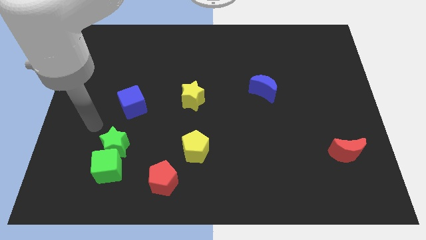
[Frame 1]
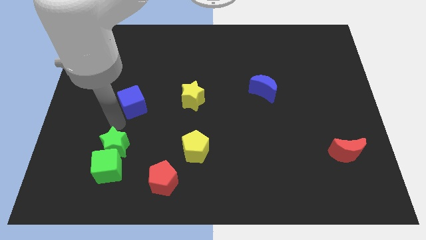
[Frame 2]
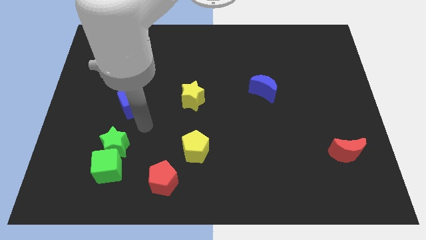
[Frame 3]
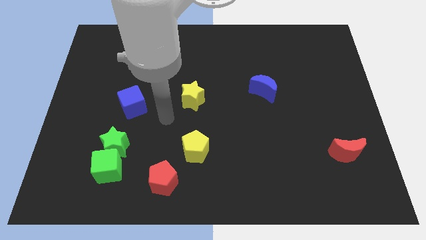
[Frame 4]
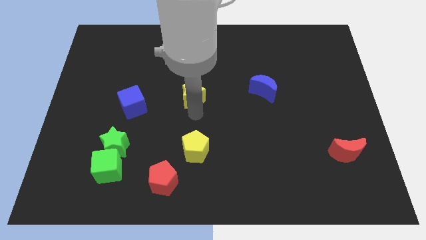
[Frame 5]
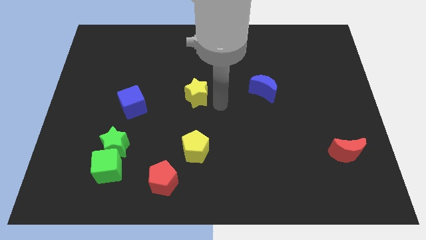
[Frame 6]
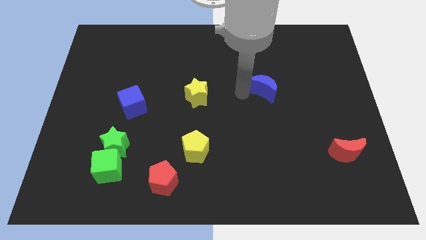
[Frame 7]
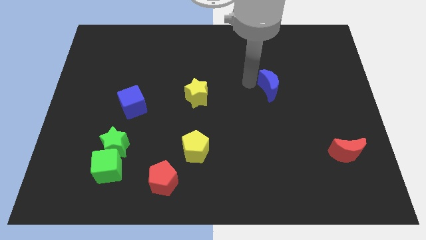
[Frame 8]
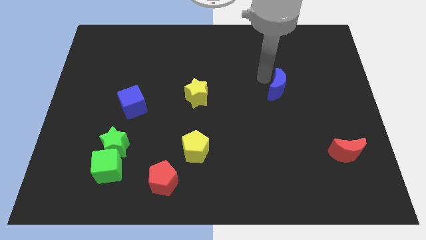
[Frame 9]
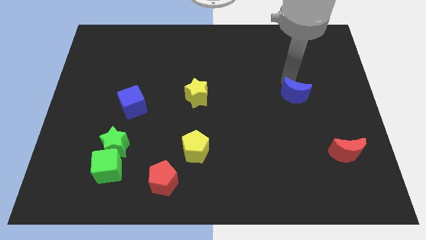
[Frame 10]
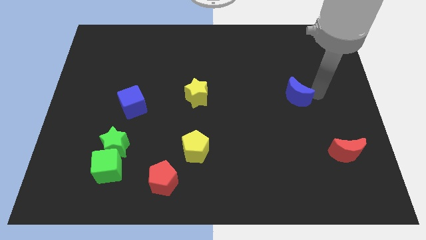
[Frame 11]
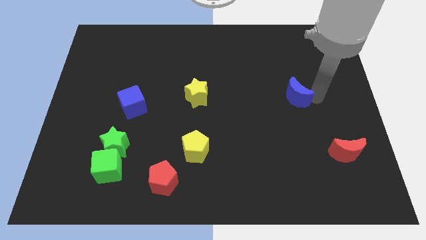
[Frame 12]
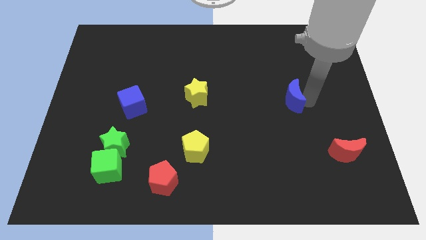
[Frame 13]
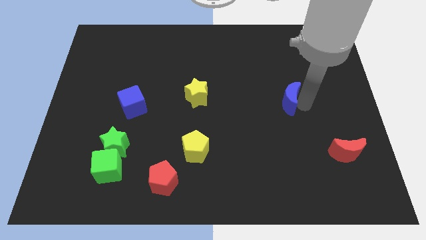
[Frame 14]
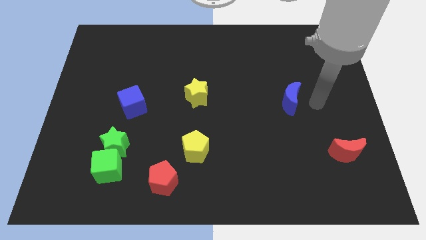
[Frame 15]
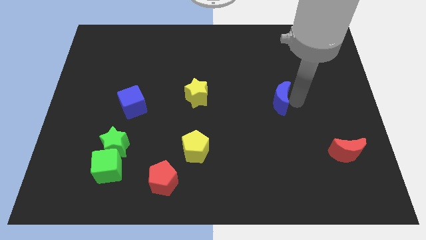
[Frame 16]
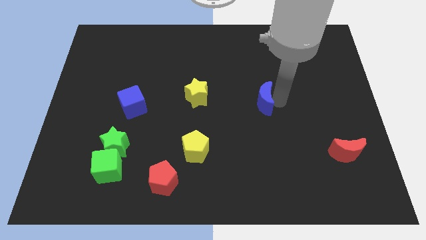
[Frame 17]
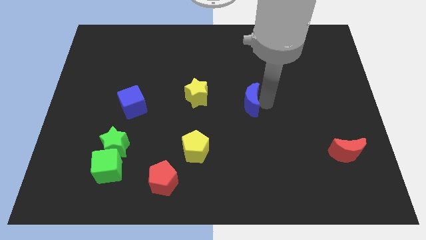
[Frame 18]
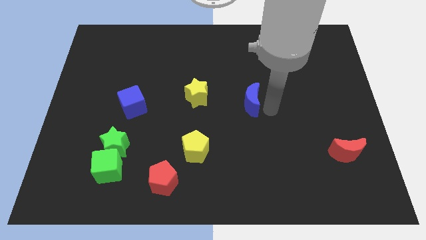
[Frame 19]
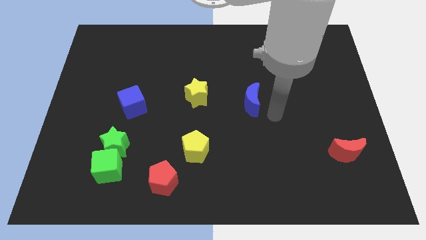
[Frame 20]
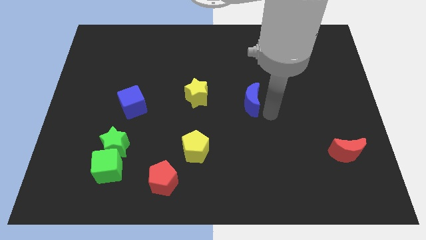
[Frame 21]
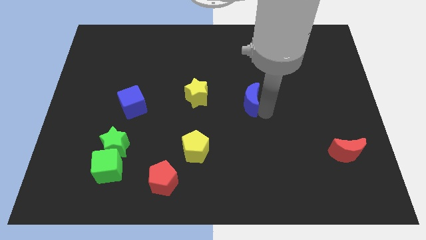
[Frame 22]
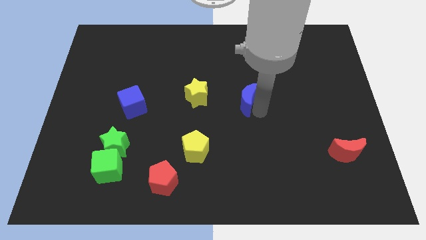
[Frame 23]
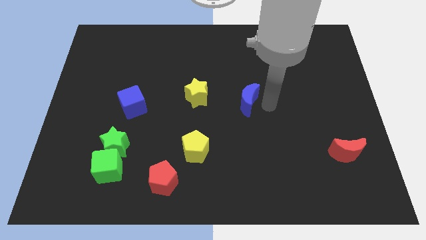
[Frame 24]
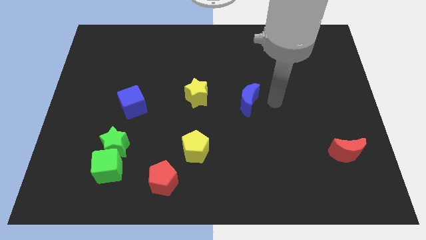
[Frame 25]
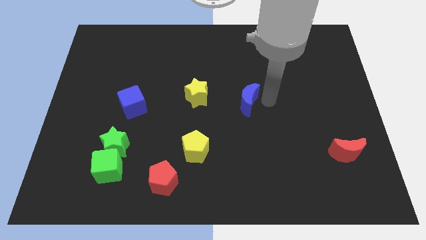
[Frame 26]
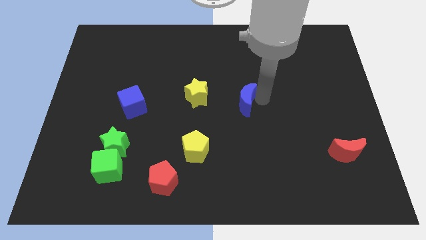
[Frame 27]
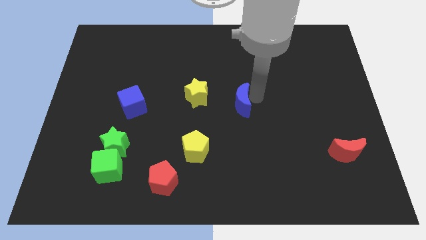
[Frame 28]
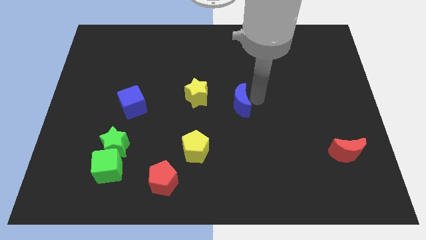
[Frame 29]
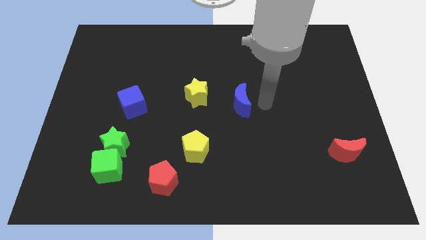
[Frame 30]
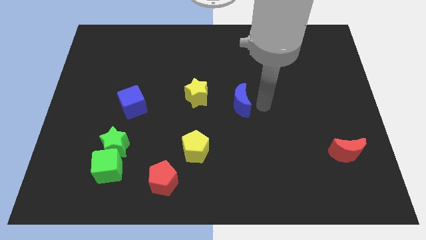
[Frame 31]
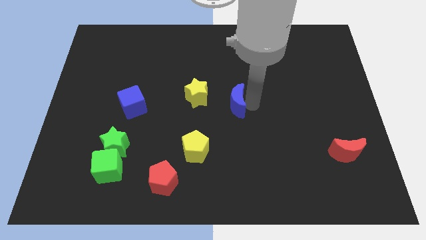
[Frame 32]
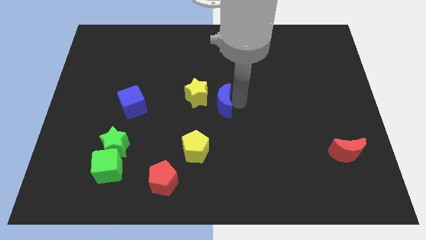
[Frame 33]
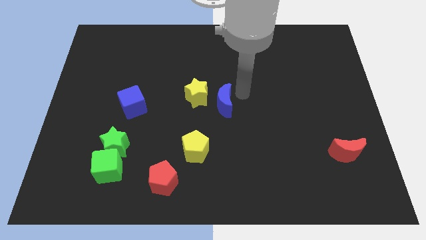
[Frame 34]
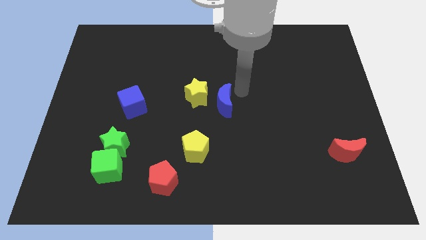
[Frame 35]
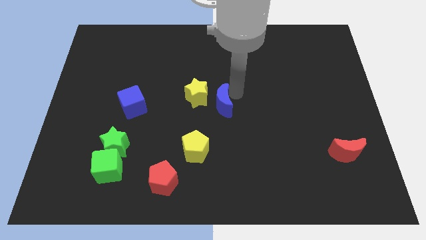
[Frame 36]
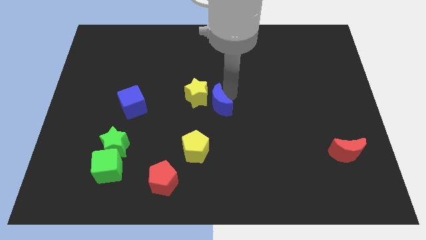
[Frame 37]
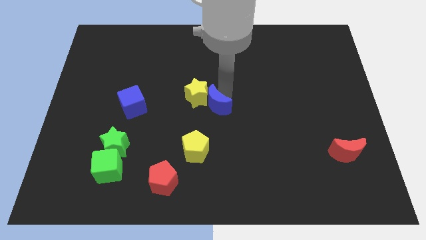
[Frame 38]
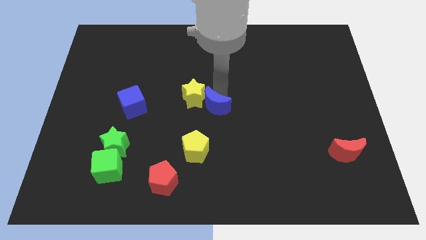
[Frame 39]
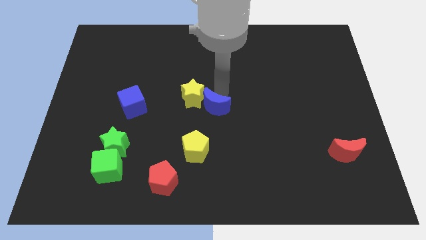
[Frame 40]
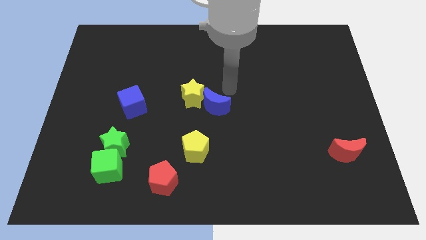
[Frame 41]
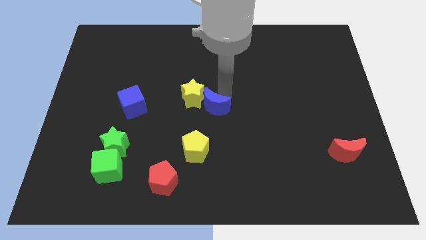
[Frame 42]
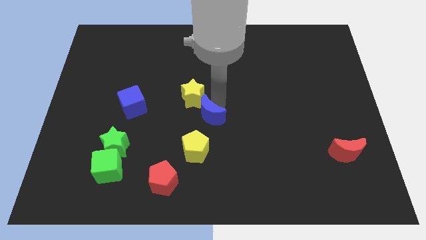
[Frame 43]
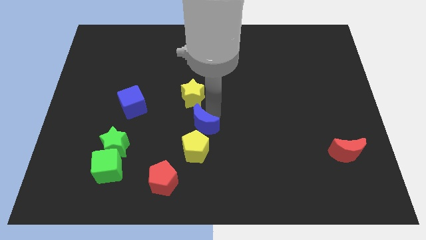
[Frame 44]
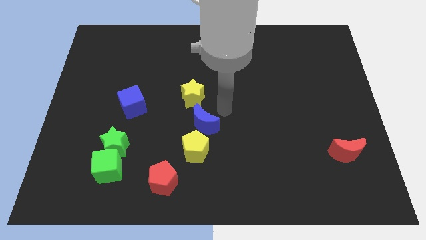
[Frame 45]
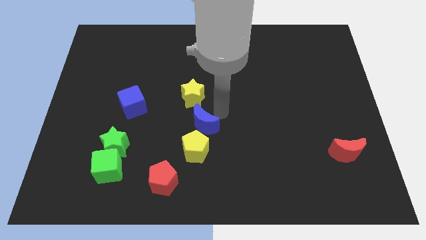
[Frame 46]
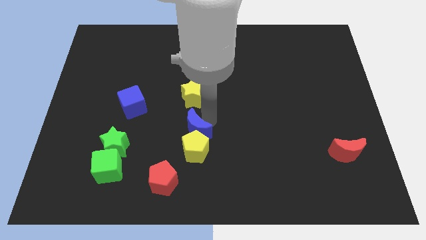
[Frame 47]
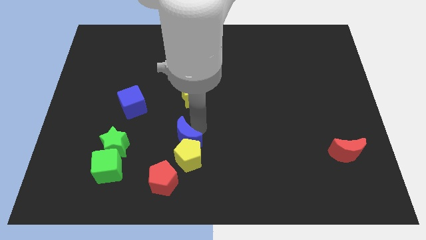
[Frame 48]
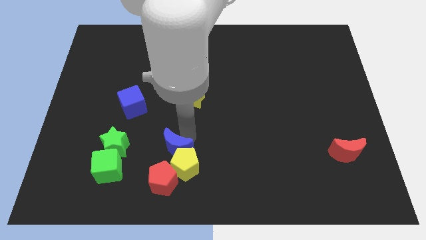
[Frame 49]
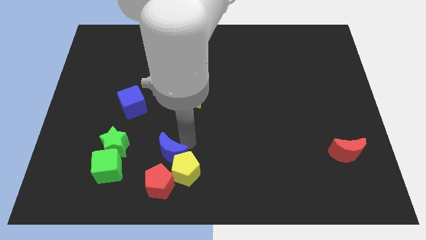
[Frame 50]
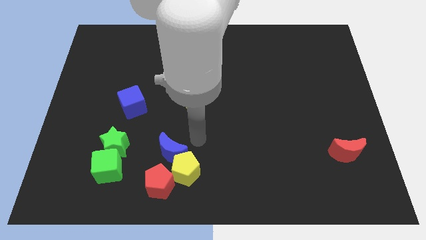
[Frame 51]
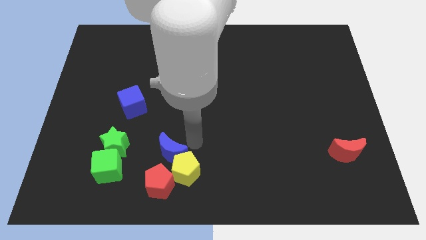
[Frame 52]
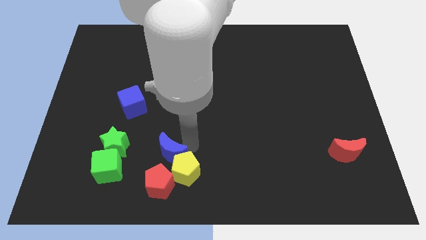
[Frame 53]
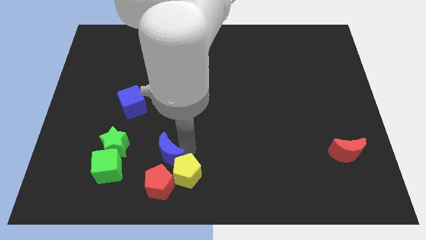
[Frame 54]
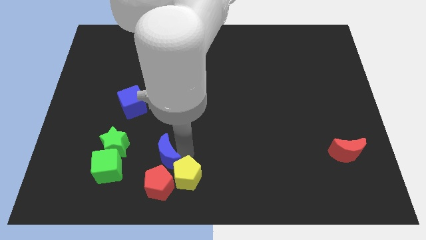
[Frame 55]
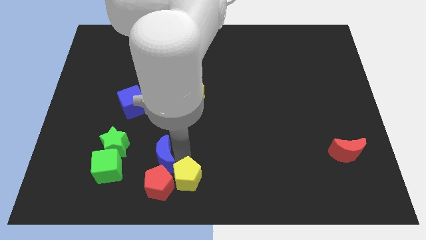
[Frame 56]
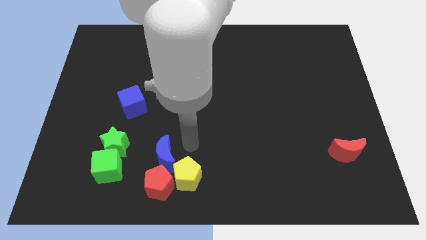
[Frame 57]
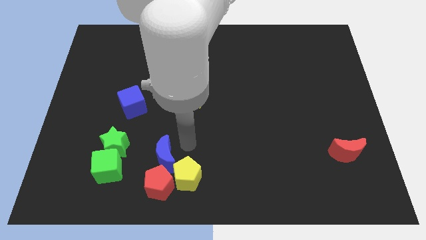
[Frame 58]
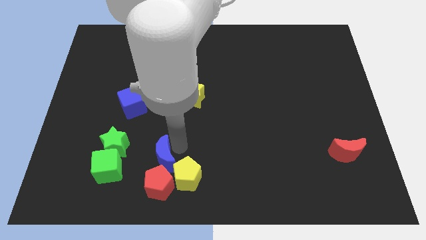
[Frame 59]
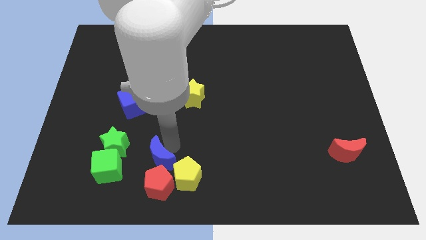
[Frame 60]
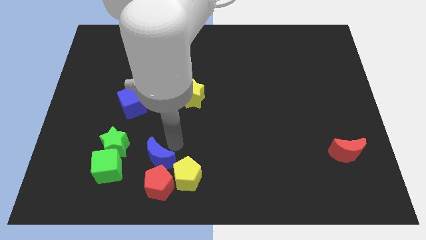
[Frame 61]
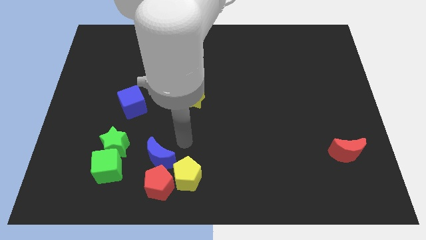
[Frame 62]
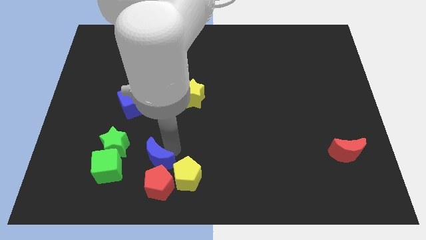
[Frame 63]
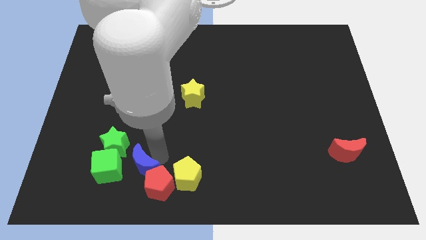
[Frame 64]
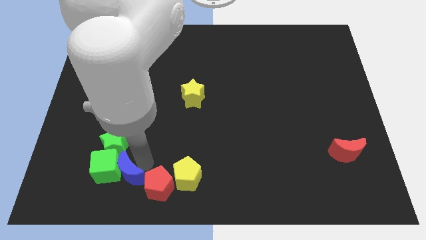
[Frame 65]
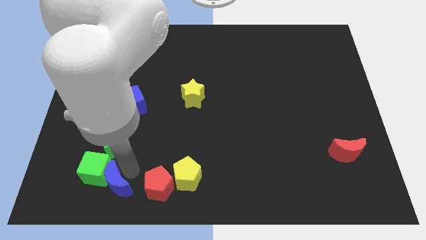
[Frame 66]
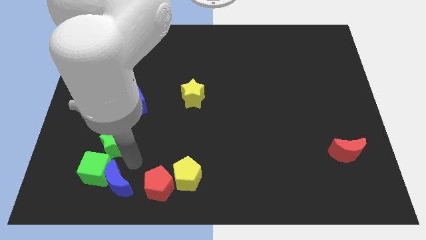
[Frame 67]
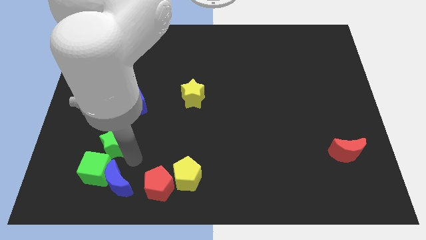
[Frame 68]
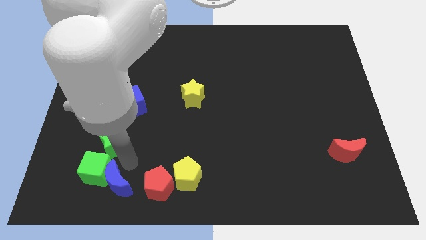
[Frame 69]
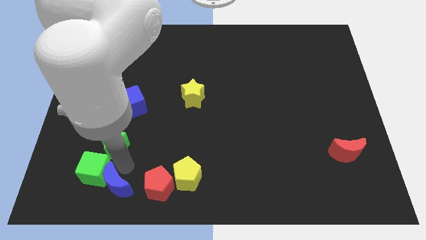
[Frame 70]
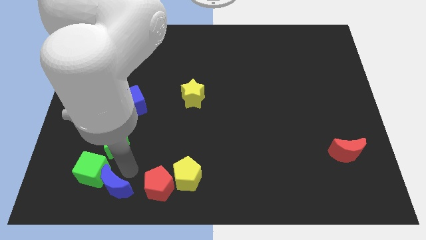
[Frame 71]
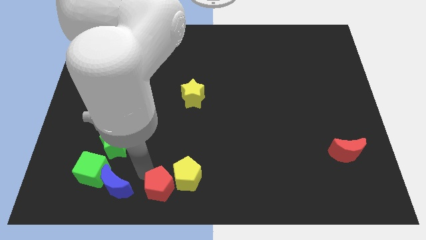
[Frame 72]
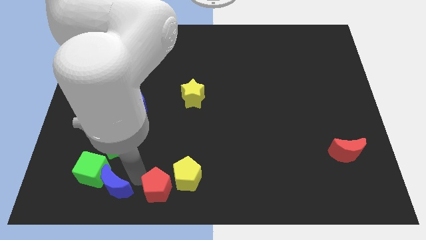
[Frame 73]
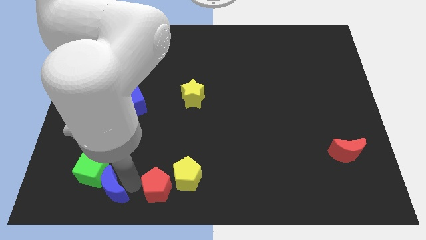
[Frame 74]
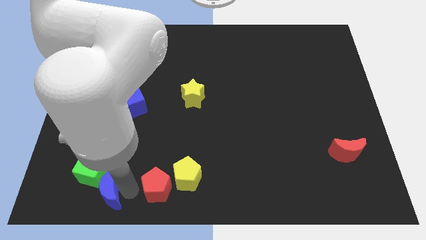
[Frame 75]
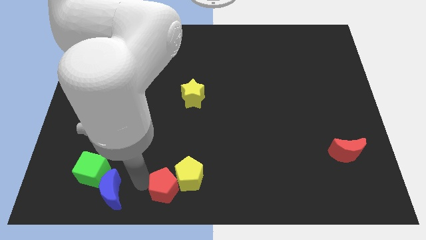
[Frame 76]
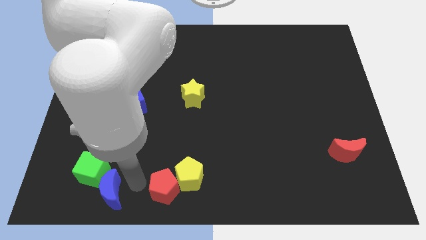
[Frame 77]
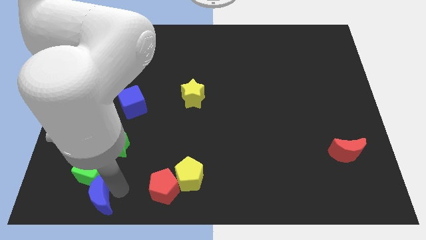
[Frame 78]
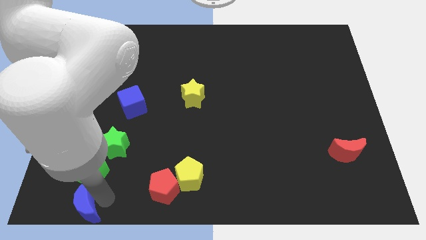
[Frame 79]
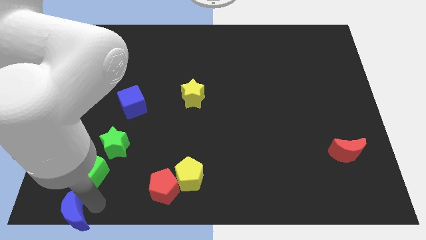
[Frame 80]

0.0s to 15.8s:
put the blue moon to the bottom left
